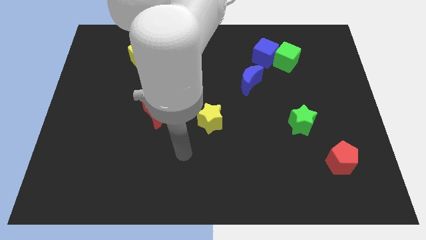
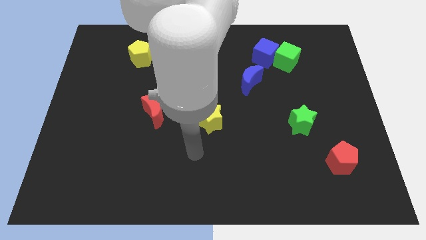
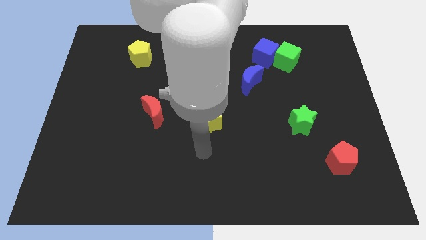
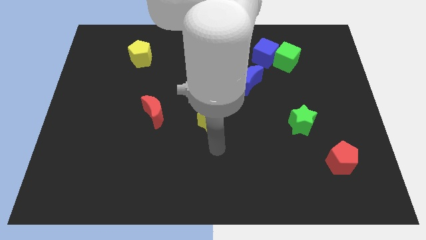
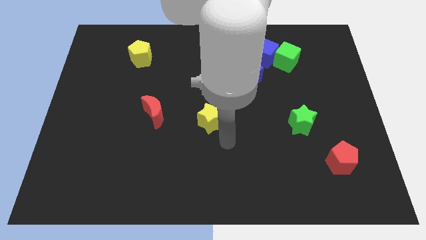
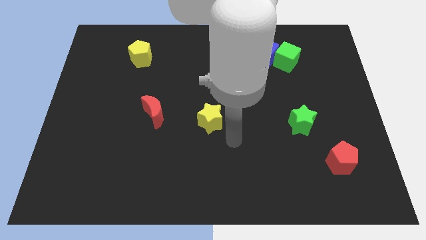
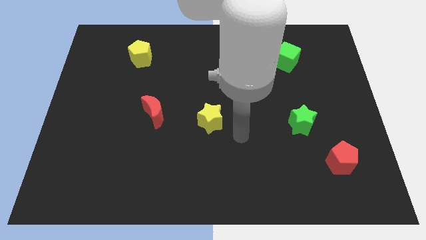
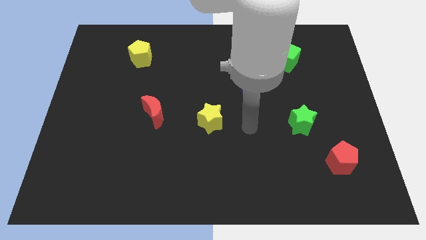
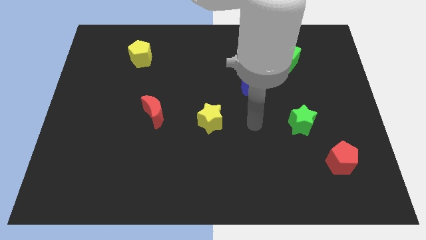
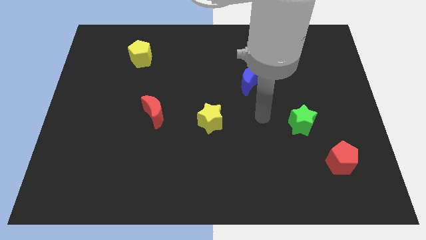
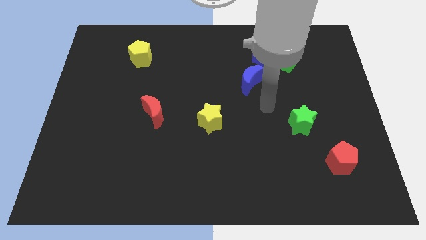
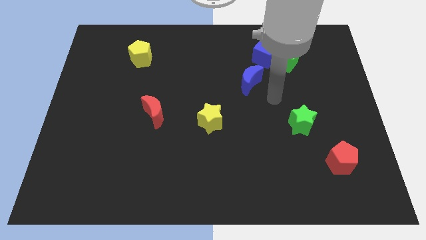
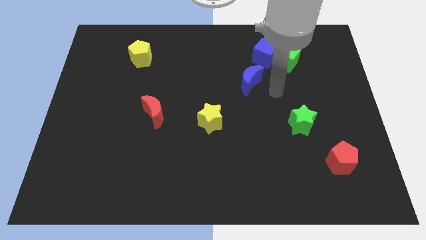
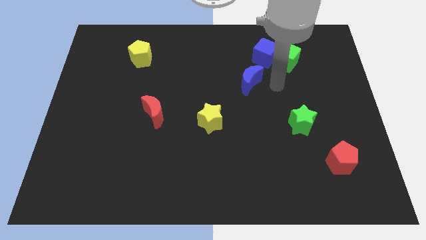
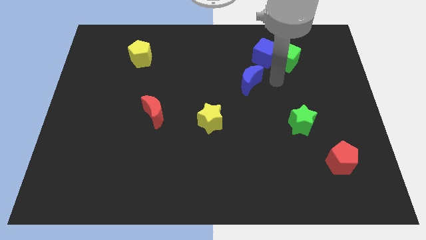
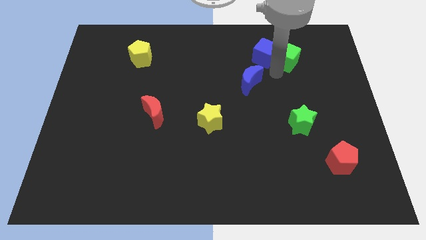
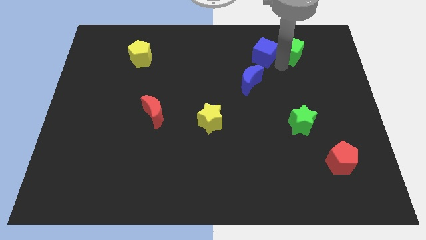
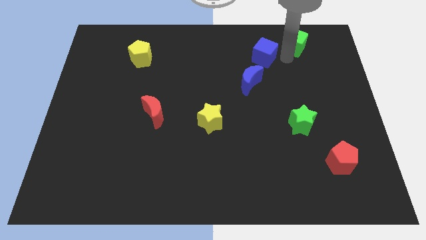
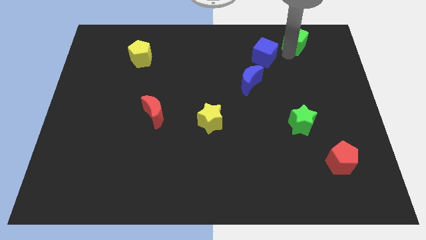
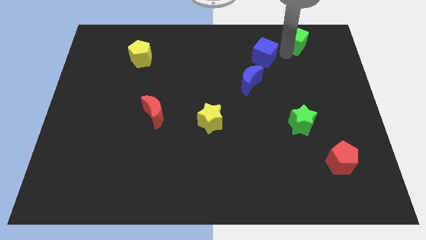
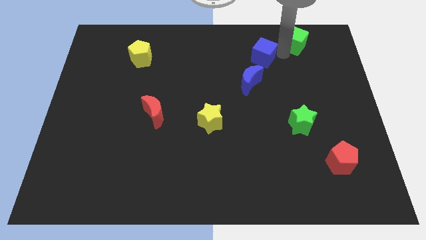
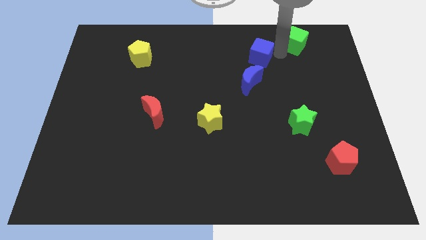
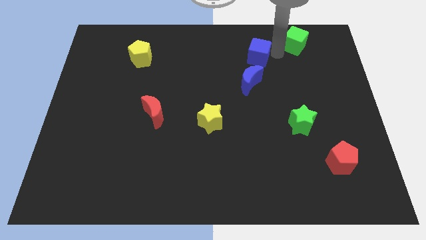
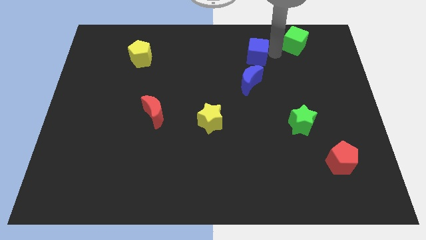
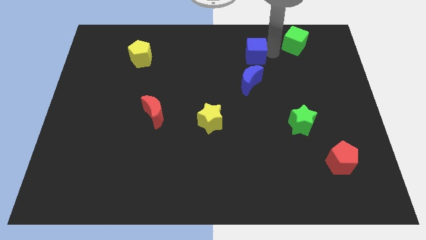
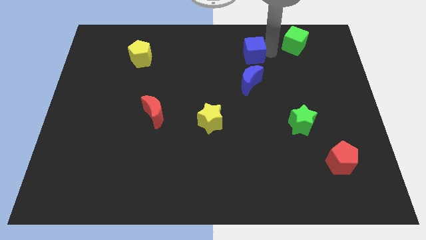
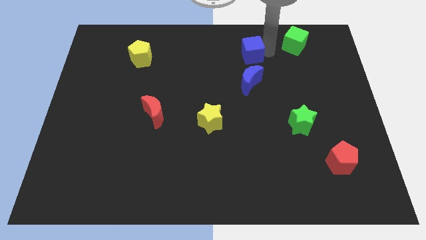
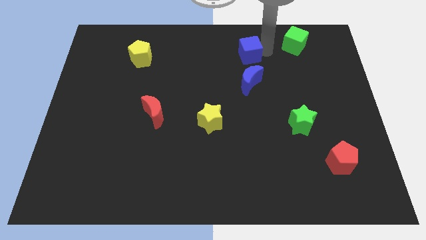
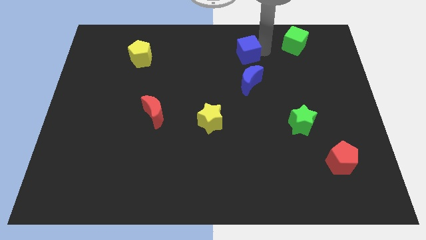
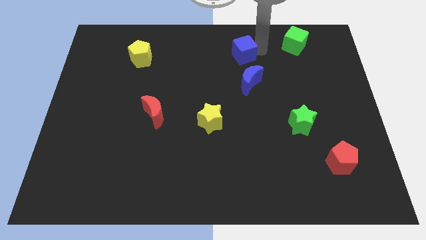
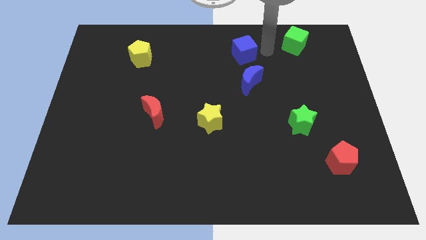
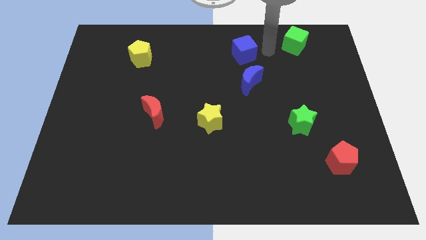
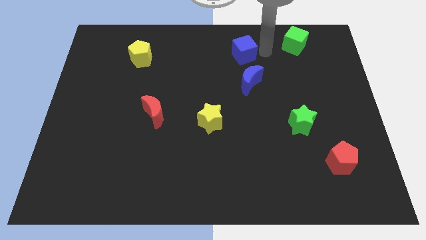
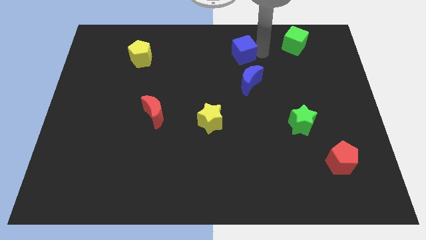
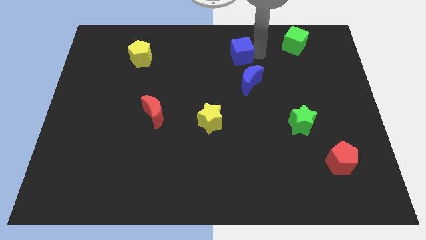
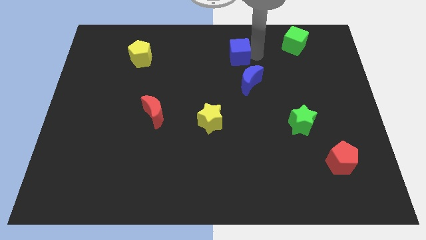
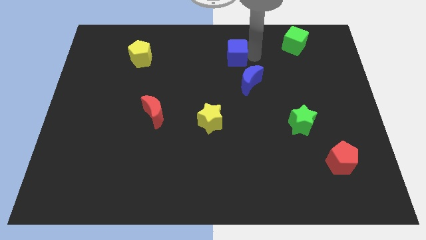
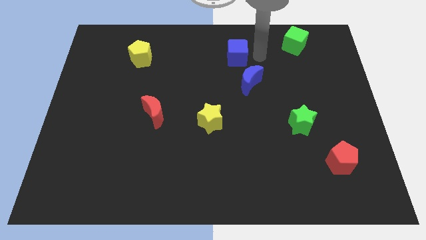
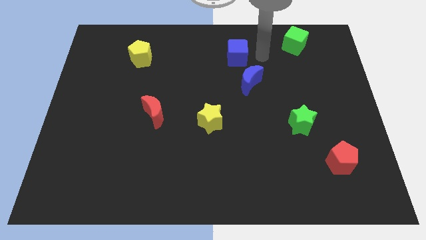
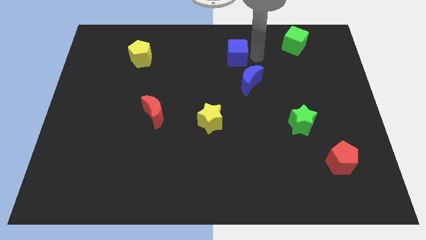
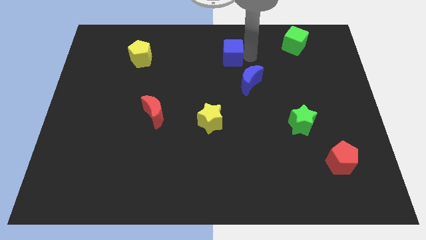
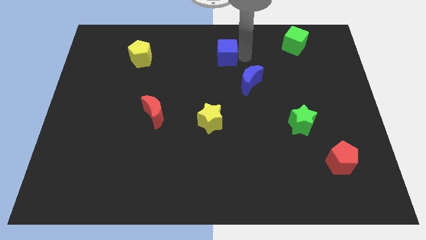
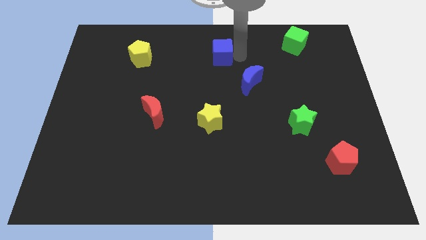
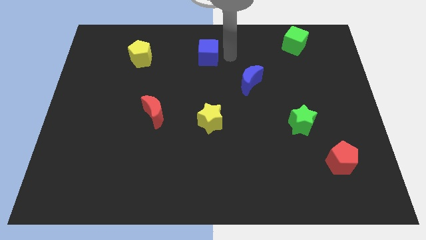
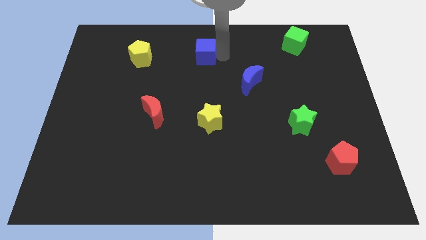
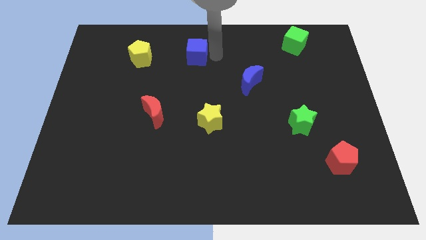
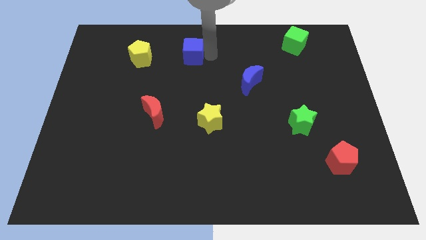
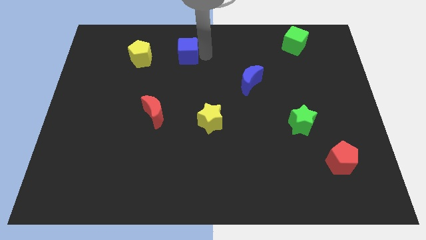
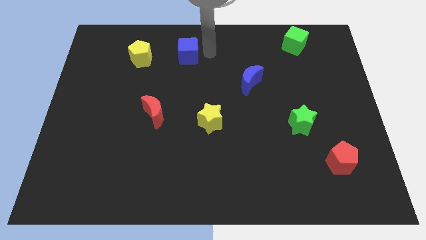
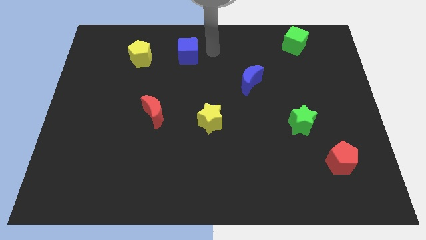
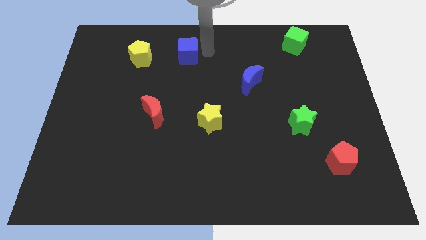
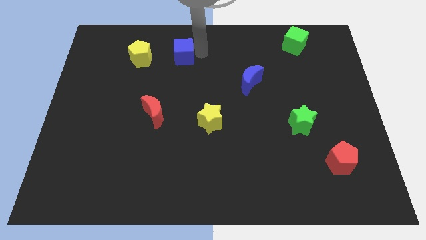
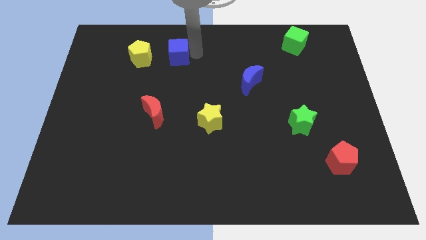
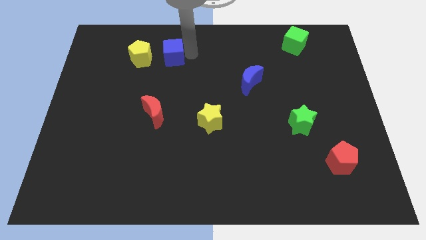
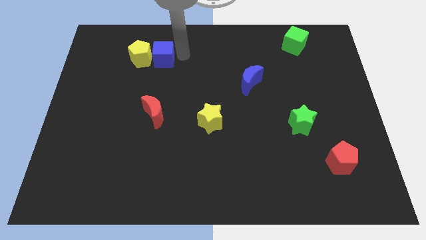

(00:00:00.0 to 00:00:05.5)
move the blue cube towards the yellow pentagon

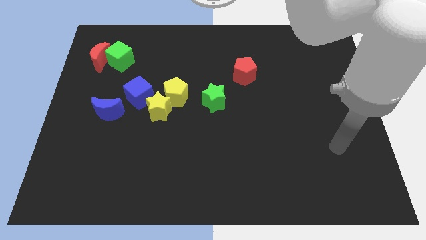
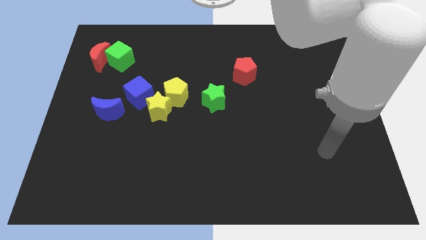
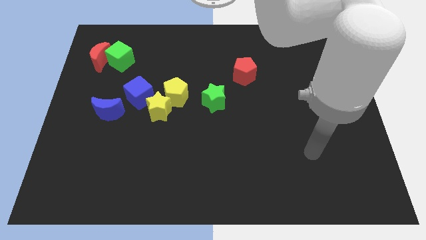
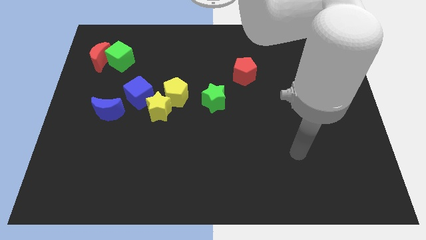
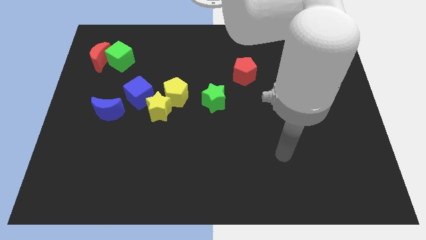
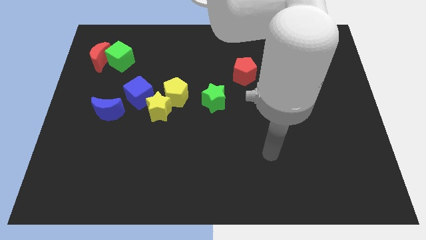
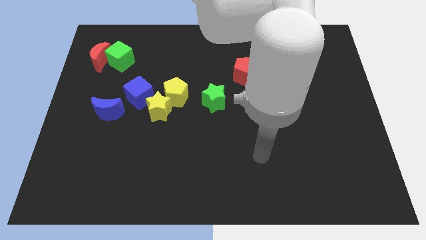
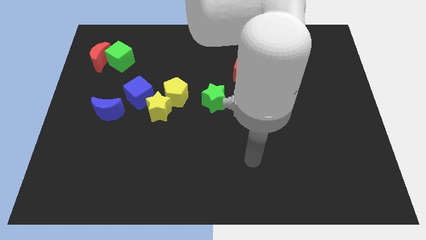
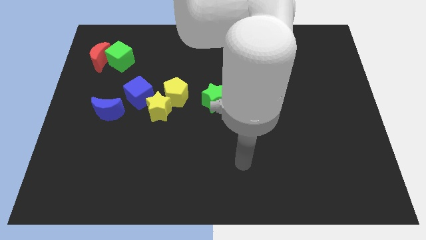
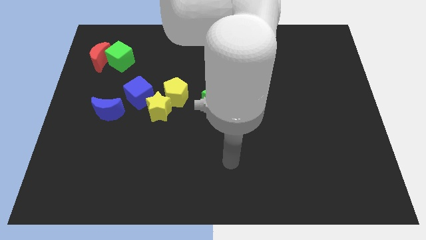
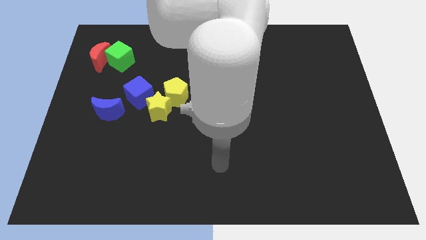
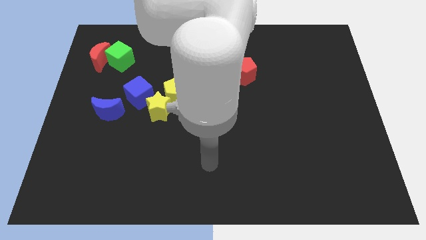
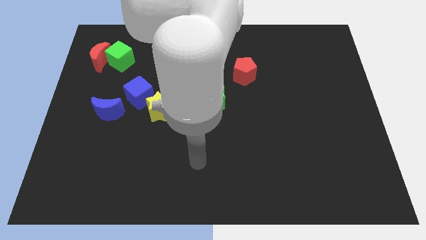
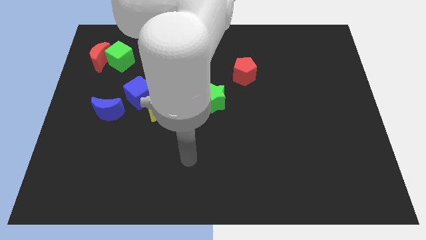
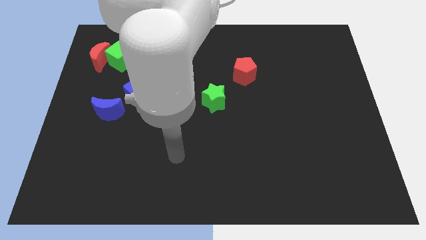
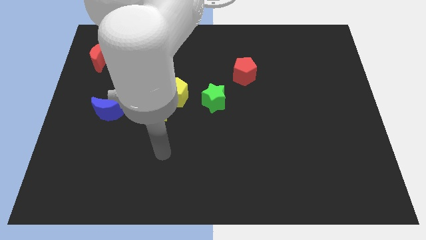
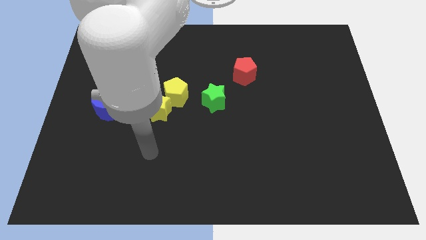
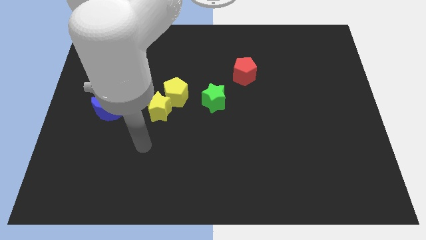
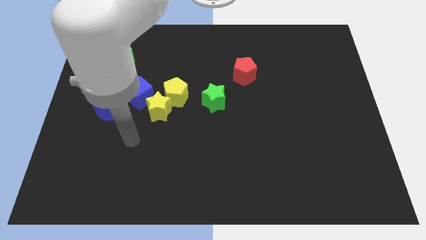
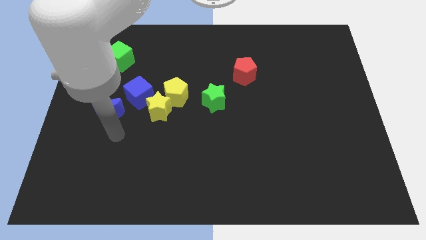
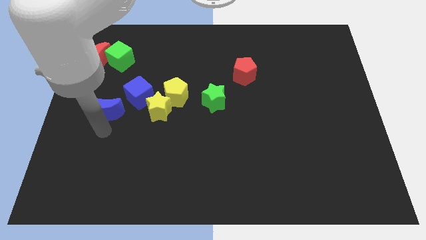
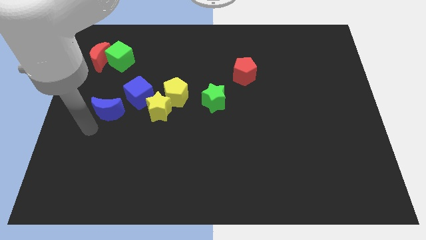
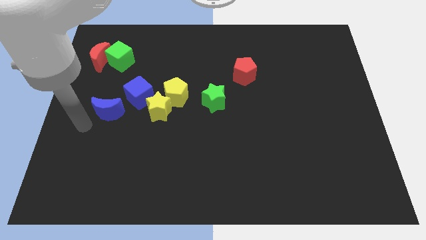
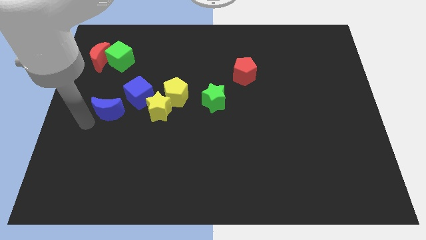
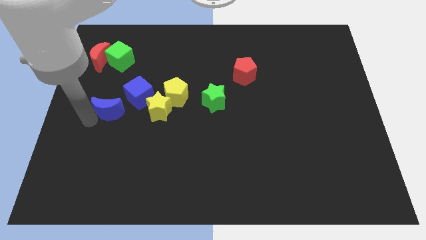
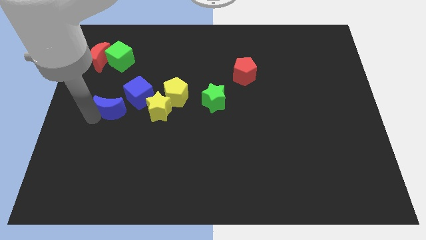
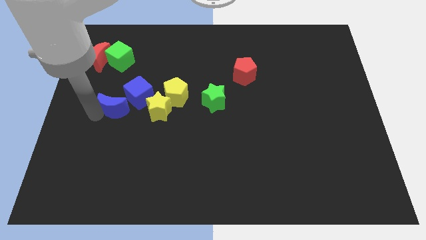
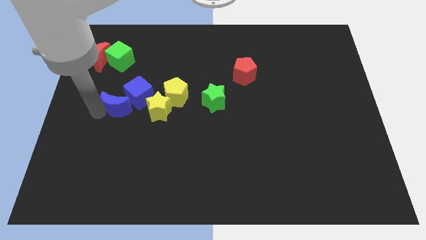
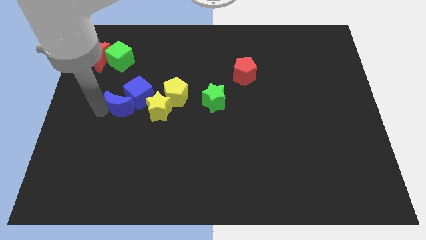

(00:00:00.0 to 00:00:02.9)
move the blue moon towards the blue cube
